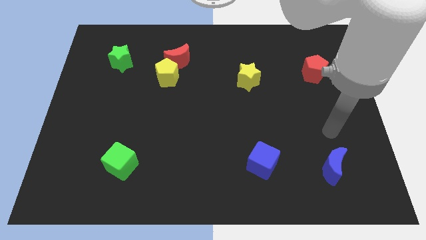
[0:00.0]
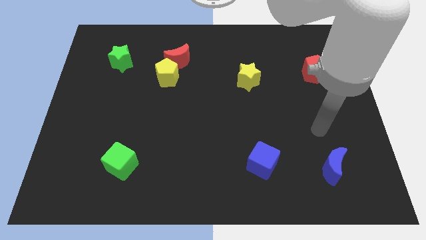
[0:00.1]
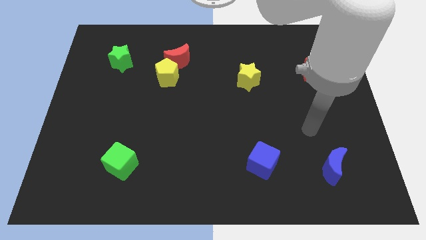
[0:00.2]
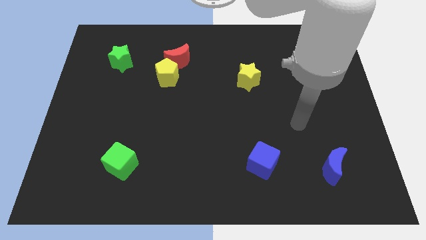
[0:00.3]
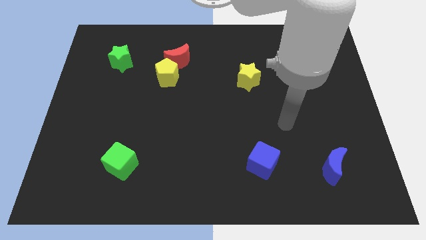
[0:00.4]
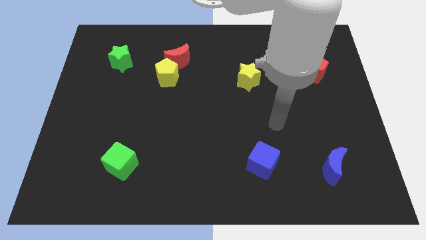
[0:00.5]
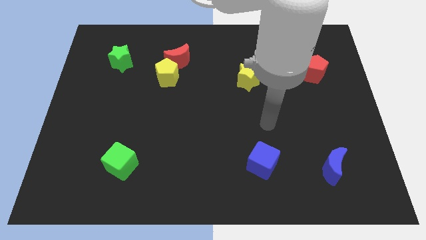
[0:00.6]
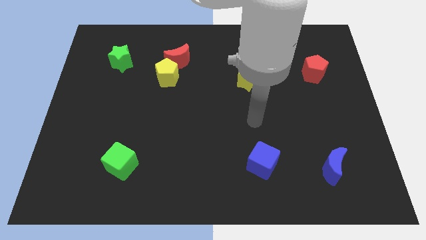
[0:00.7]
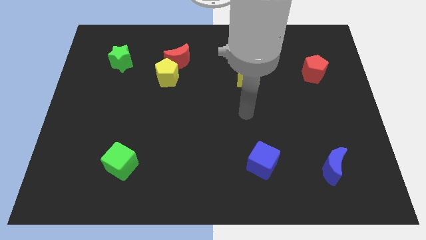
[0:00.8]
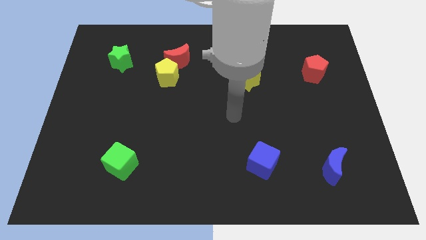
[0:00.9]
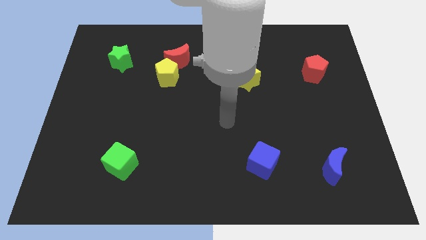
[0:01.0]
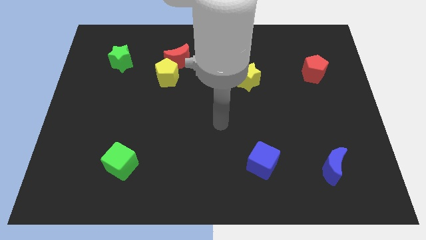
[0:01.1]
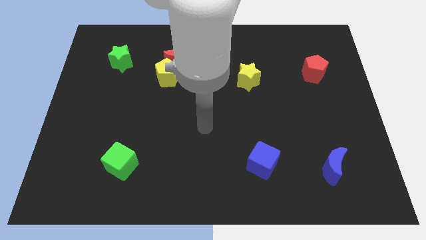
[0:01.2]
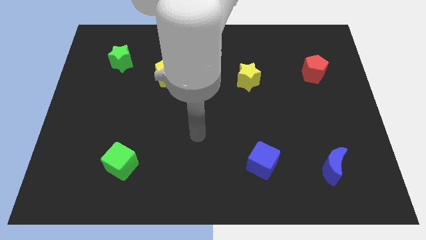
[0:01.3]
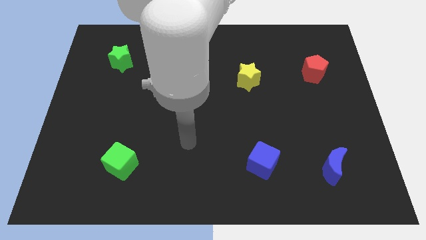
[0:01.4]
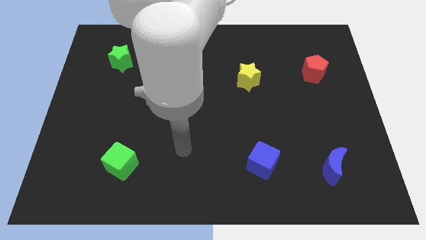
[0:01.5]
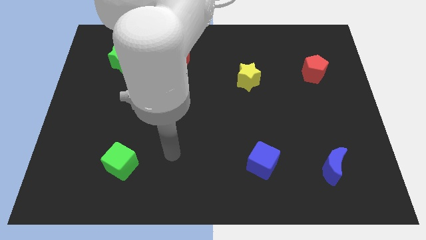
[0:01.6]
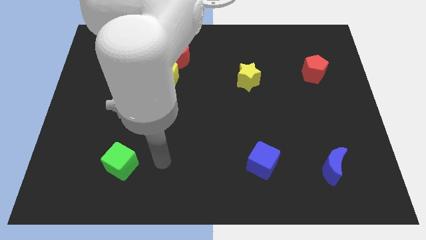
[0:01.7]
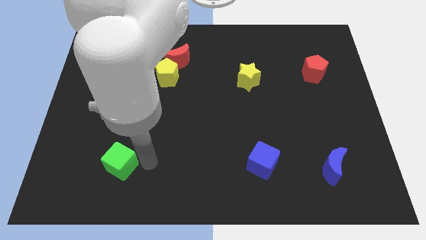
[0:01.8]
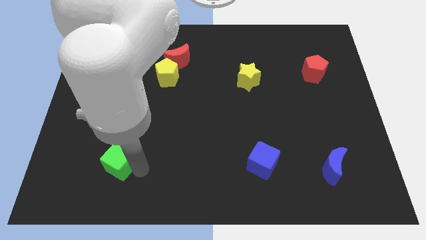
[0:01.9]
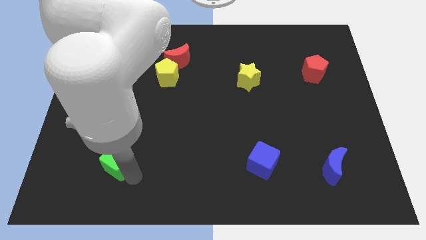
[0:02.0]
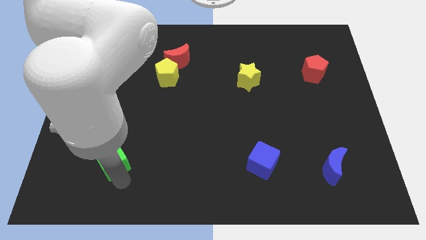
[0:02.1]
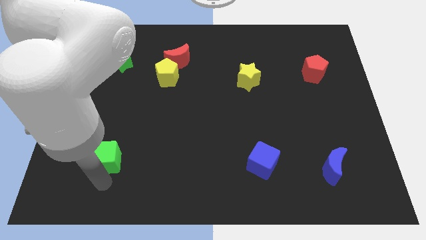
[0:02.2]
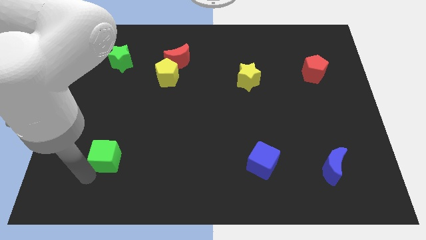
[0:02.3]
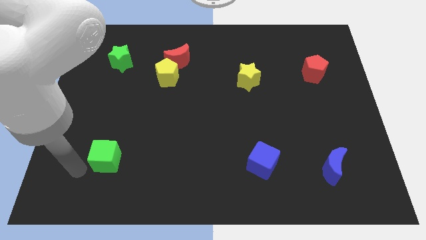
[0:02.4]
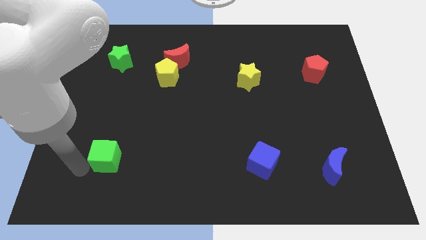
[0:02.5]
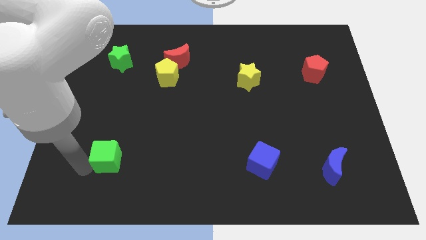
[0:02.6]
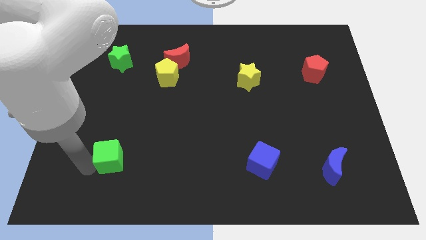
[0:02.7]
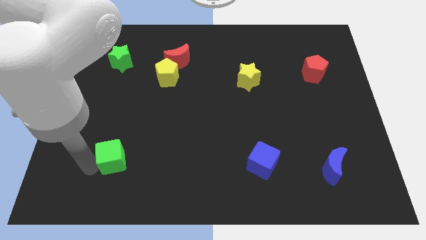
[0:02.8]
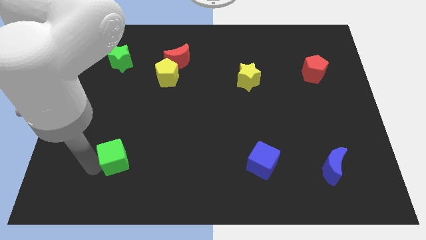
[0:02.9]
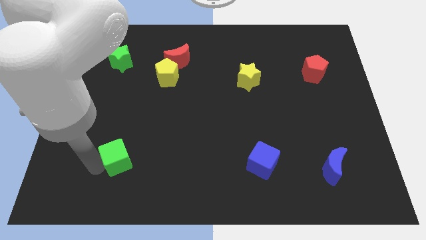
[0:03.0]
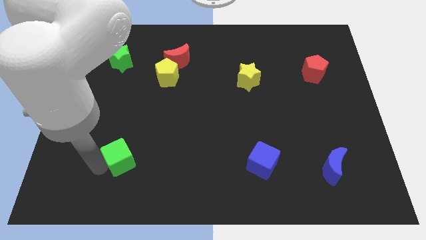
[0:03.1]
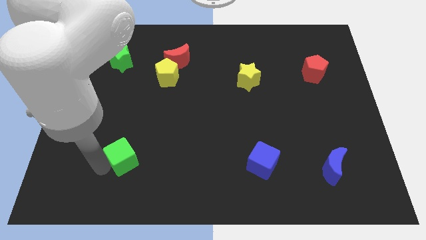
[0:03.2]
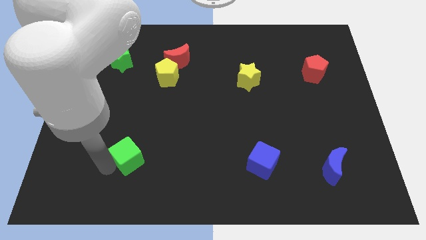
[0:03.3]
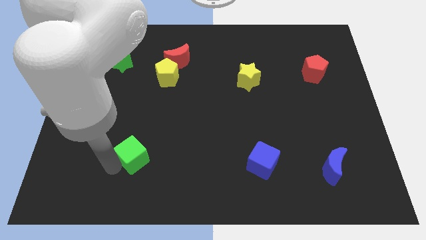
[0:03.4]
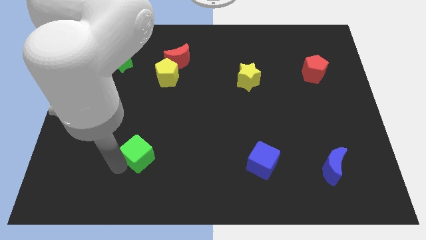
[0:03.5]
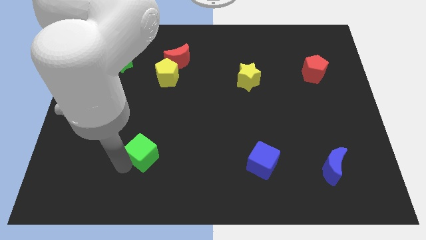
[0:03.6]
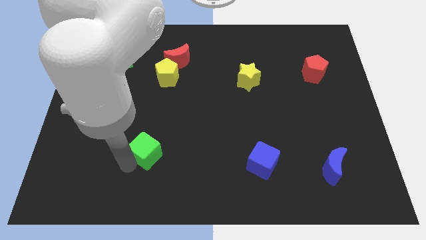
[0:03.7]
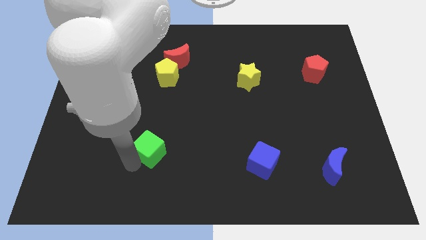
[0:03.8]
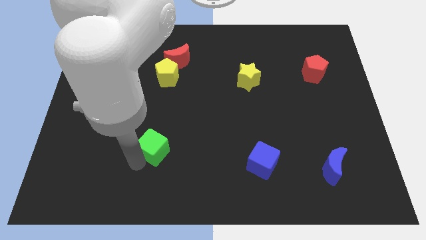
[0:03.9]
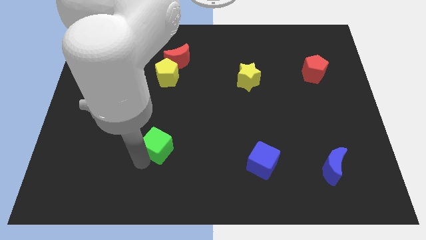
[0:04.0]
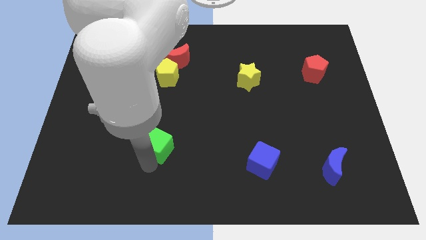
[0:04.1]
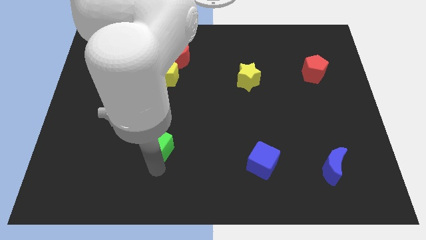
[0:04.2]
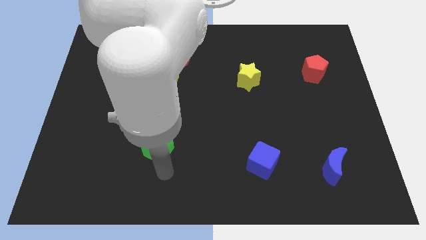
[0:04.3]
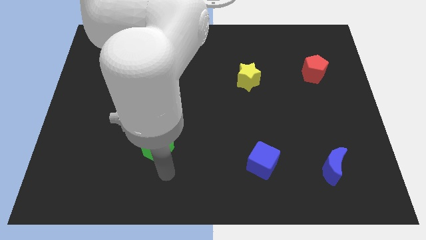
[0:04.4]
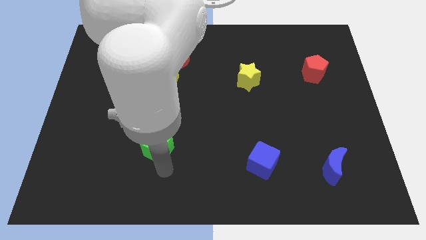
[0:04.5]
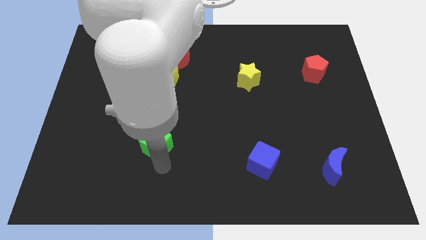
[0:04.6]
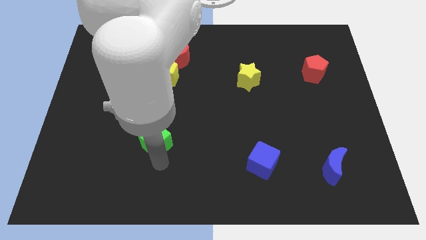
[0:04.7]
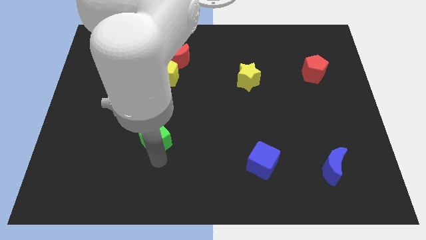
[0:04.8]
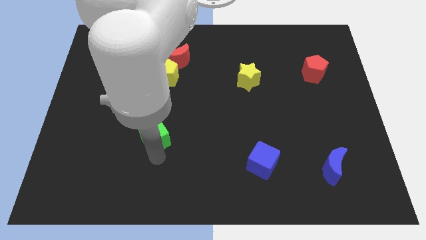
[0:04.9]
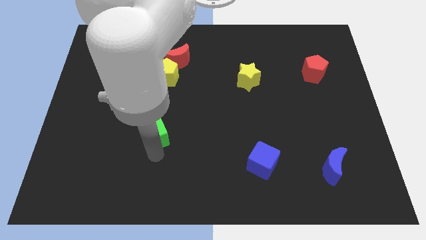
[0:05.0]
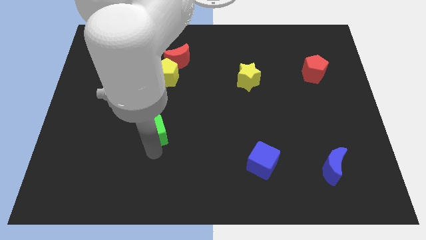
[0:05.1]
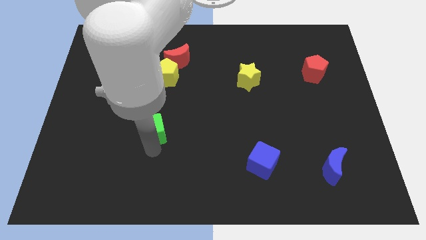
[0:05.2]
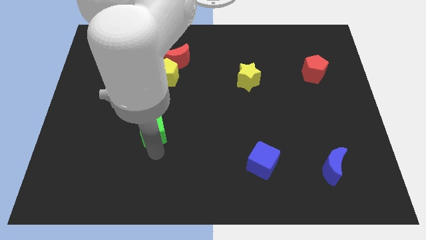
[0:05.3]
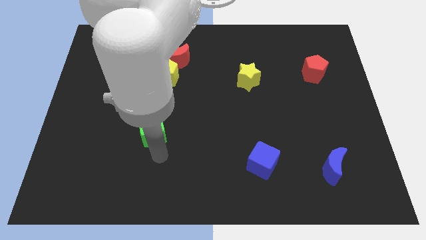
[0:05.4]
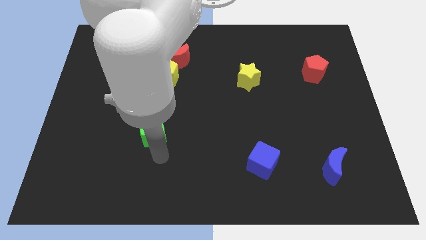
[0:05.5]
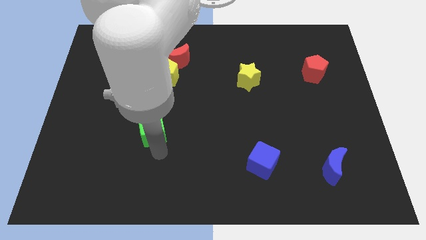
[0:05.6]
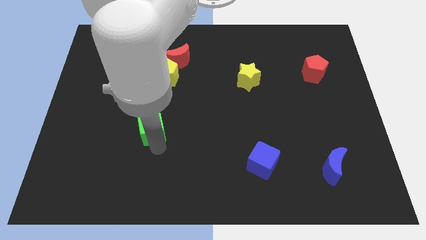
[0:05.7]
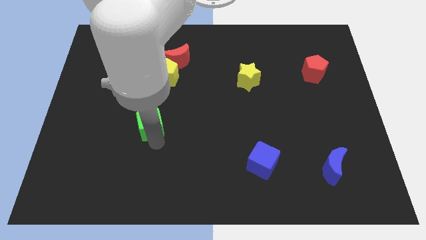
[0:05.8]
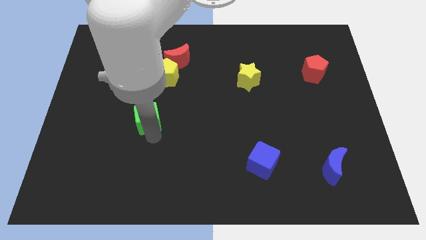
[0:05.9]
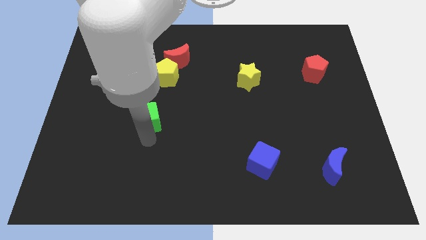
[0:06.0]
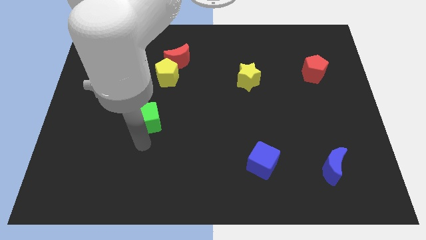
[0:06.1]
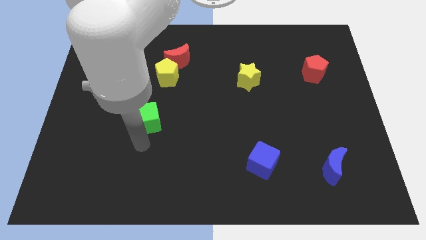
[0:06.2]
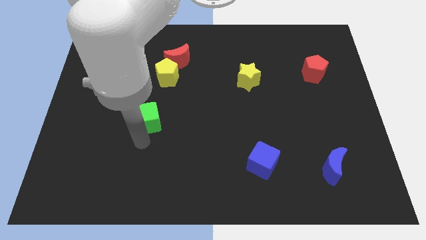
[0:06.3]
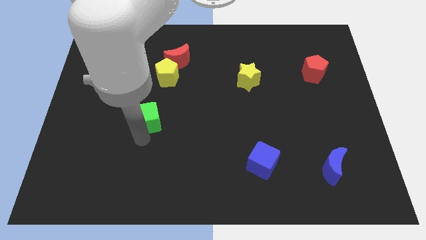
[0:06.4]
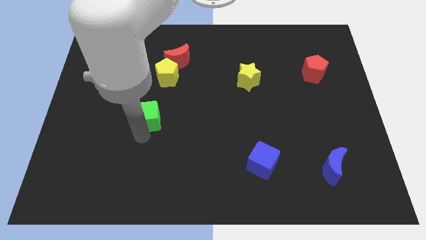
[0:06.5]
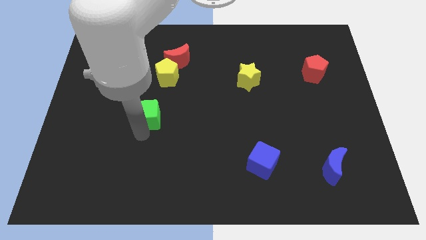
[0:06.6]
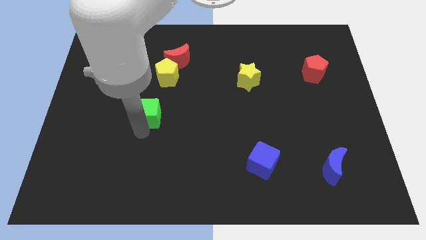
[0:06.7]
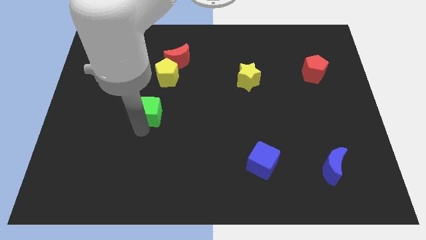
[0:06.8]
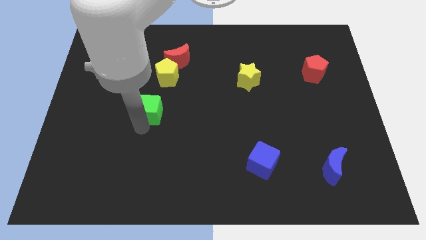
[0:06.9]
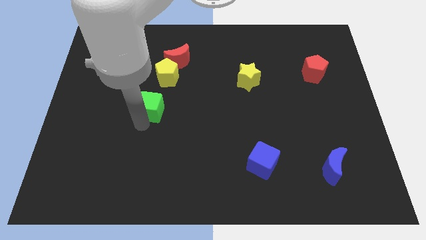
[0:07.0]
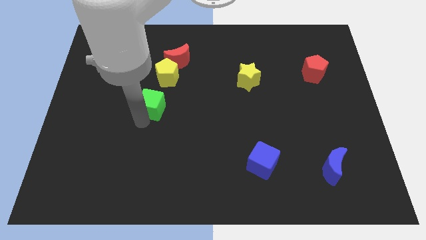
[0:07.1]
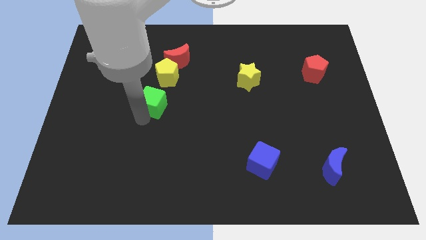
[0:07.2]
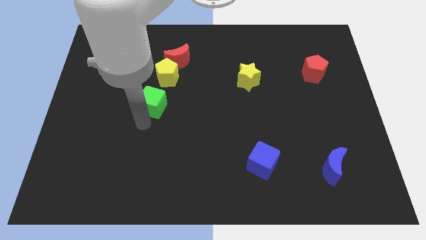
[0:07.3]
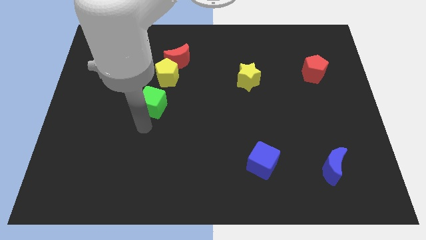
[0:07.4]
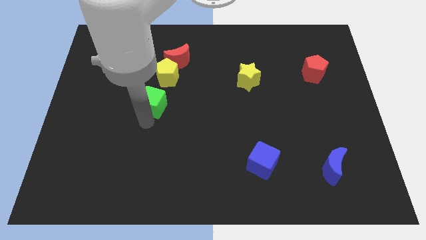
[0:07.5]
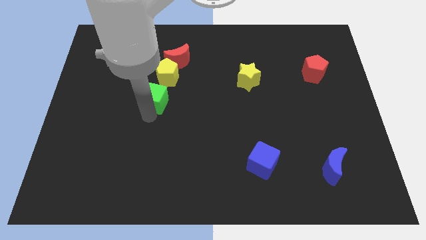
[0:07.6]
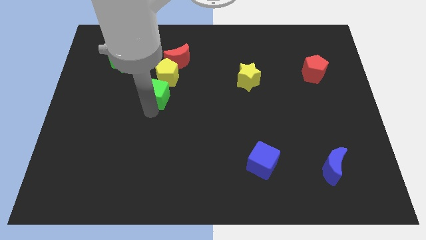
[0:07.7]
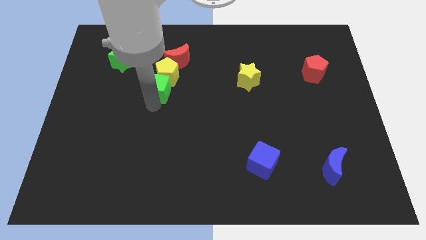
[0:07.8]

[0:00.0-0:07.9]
move the green cube next to the yellow pentagon
